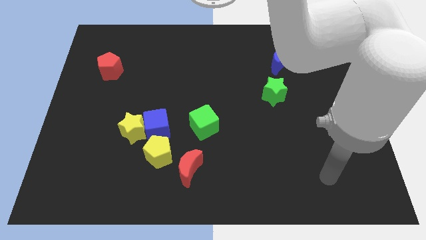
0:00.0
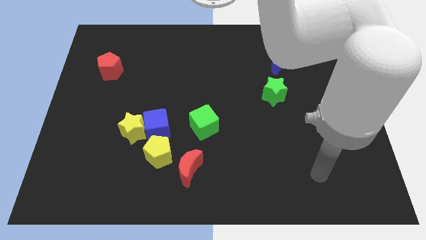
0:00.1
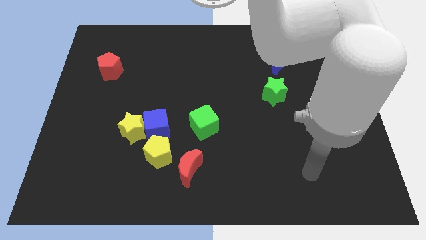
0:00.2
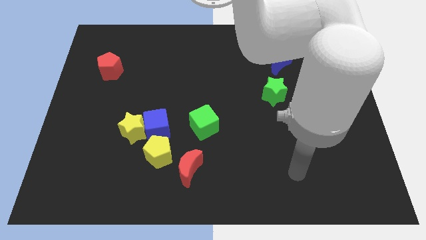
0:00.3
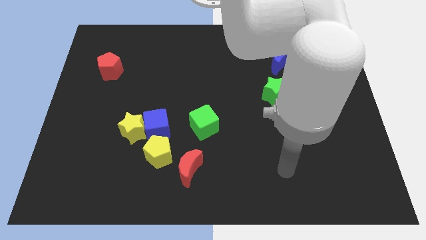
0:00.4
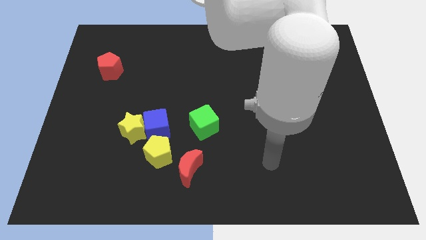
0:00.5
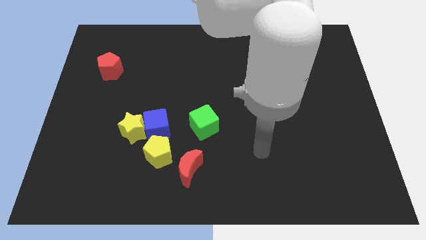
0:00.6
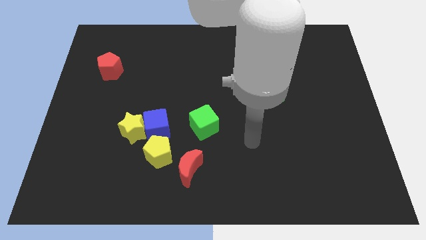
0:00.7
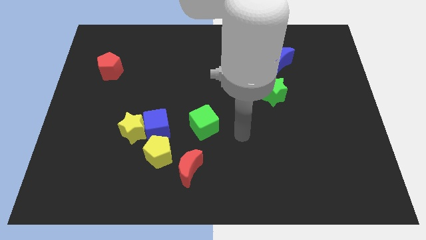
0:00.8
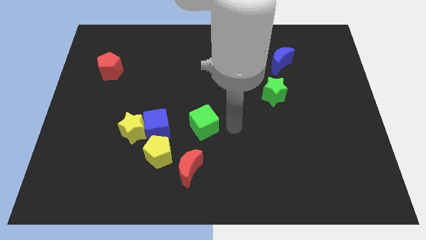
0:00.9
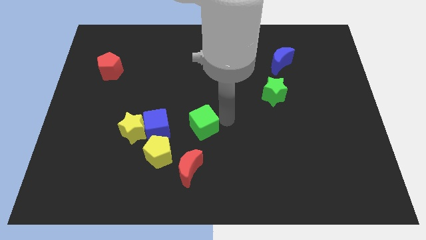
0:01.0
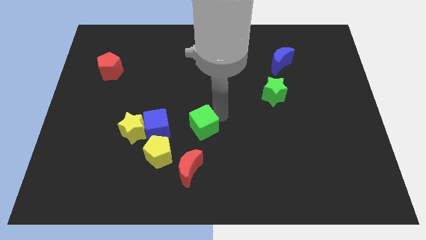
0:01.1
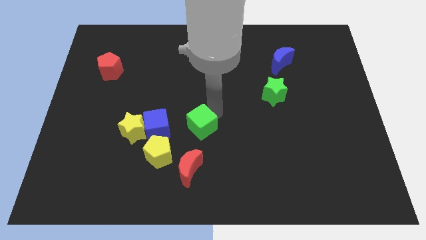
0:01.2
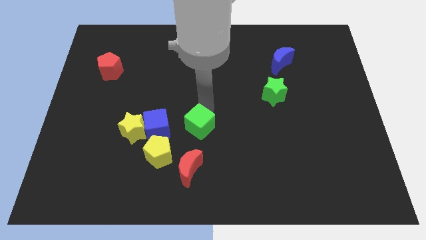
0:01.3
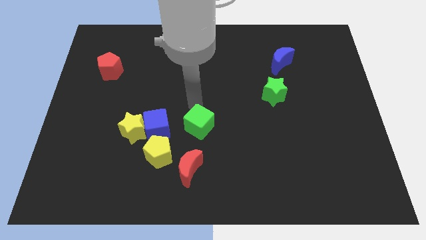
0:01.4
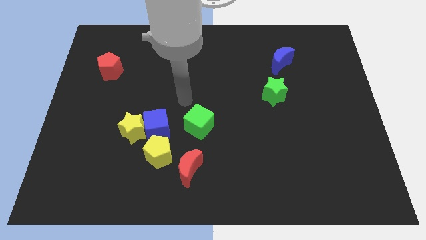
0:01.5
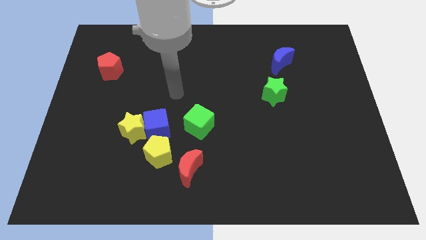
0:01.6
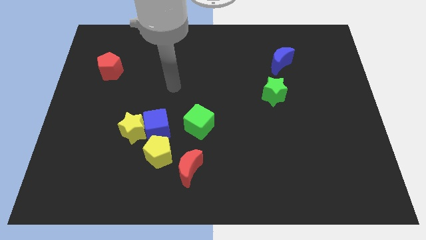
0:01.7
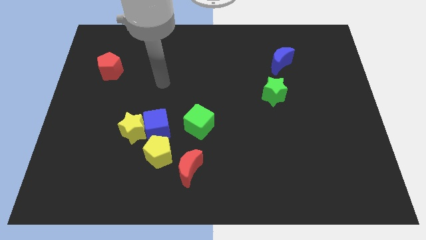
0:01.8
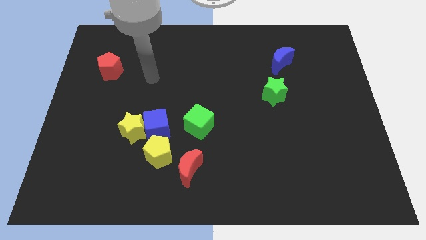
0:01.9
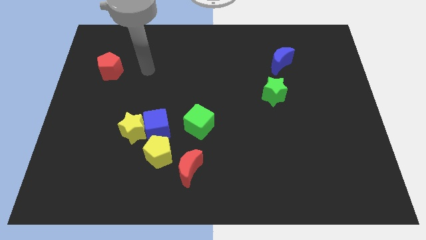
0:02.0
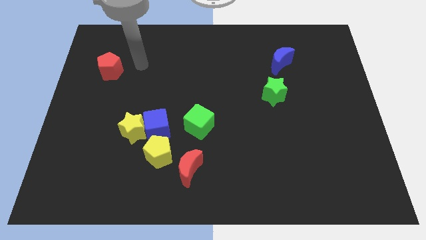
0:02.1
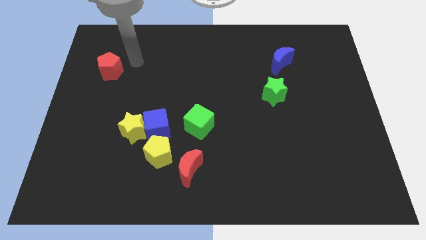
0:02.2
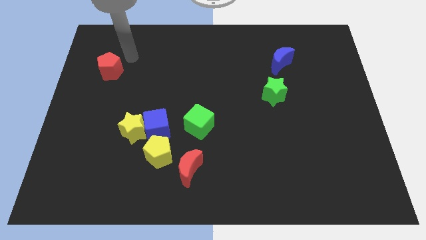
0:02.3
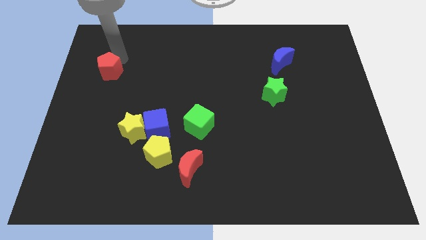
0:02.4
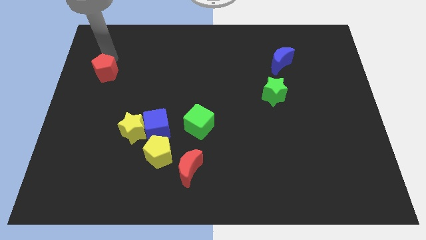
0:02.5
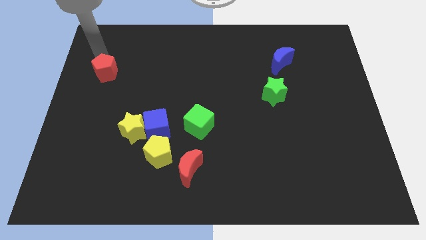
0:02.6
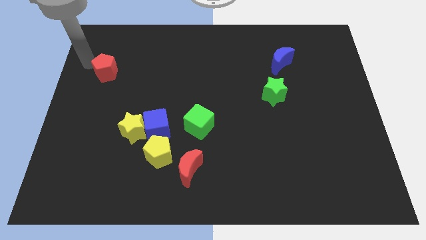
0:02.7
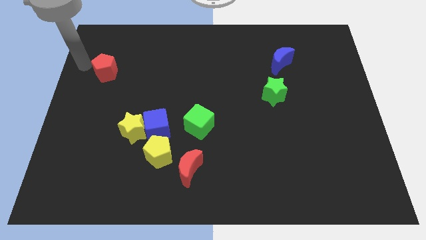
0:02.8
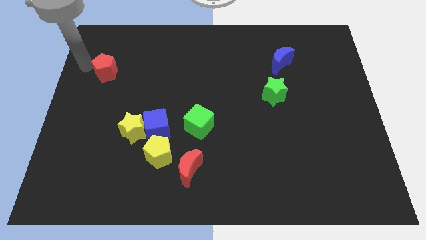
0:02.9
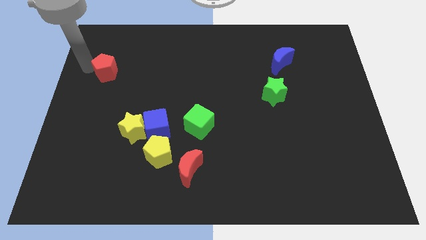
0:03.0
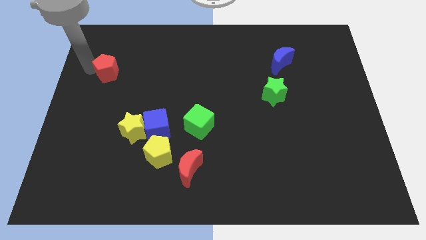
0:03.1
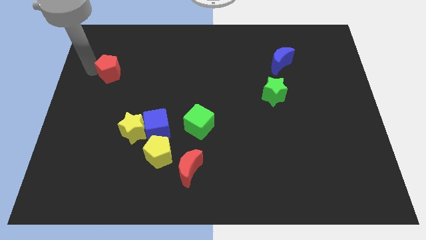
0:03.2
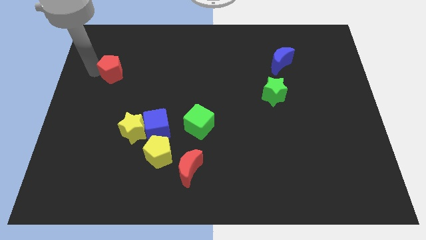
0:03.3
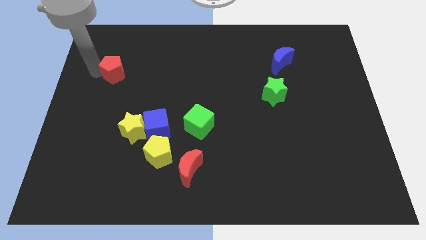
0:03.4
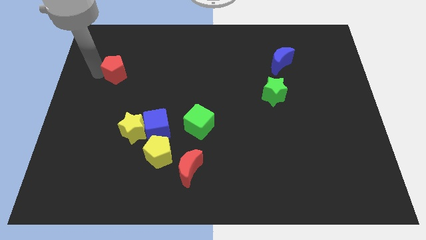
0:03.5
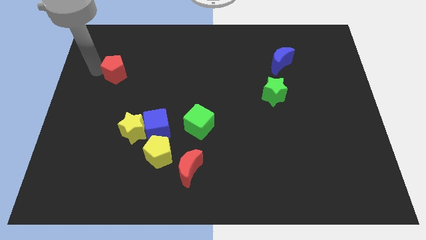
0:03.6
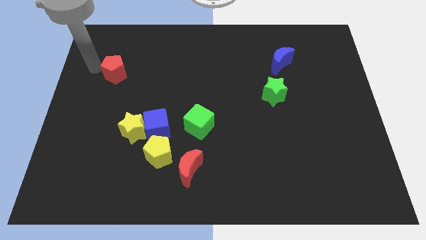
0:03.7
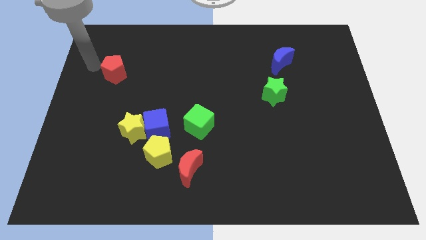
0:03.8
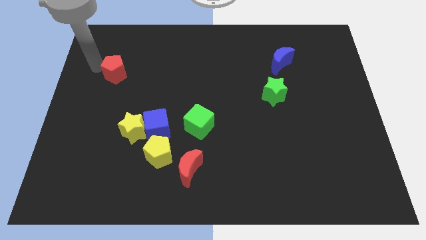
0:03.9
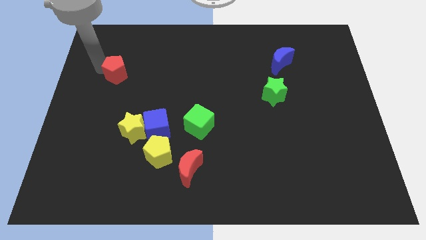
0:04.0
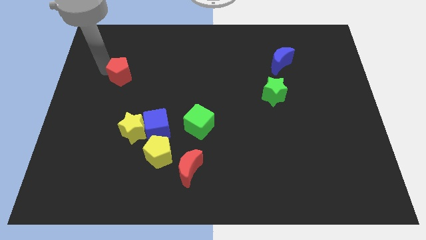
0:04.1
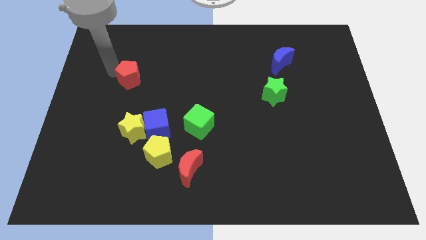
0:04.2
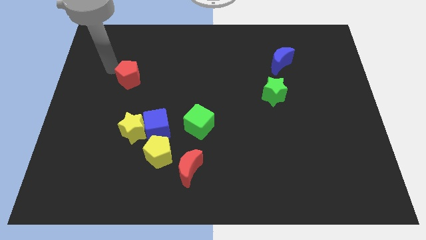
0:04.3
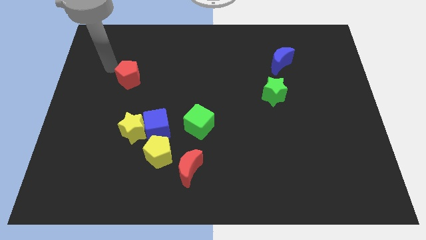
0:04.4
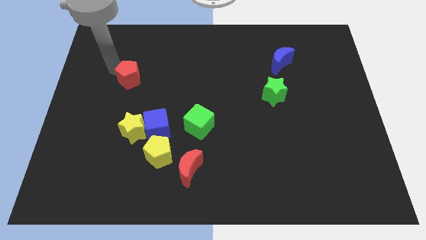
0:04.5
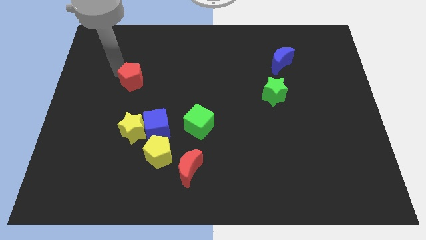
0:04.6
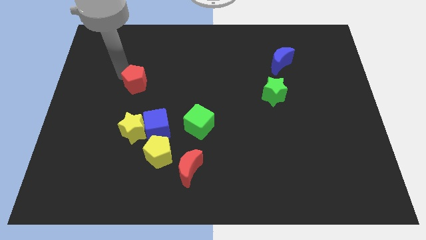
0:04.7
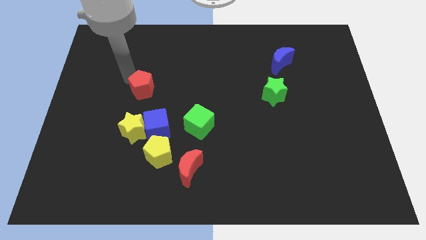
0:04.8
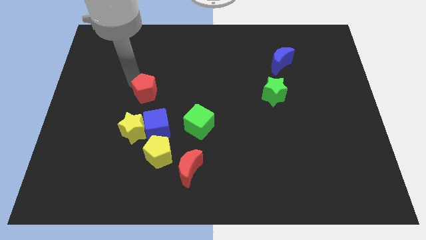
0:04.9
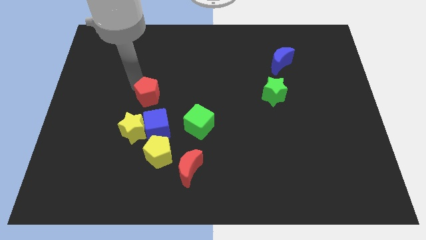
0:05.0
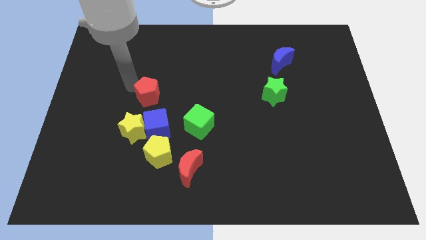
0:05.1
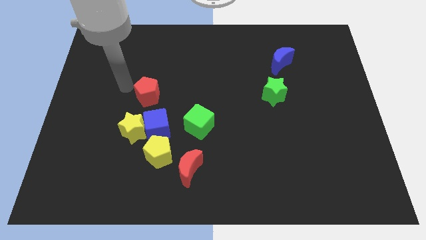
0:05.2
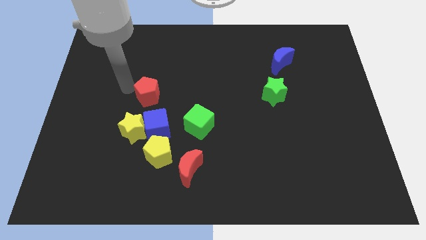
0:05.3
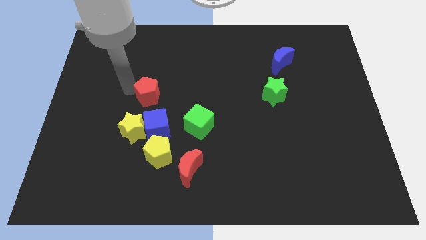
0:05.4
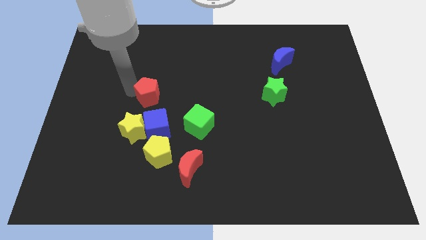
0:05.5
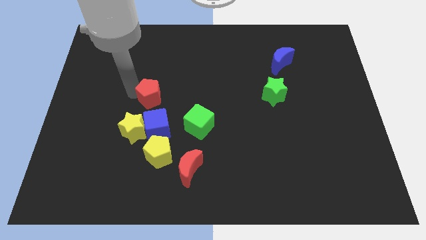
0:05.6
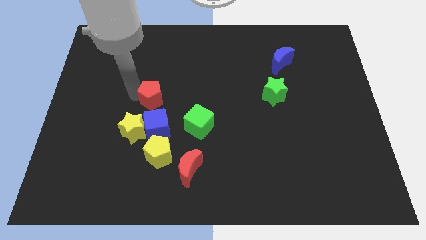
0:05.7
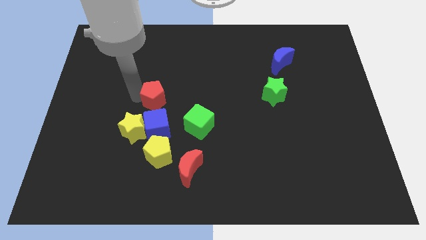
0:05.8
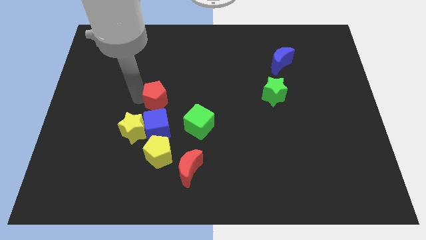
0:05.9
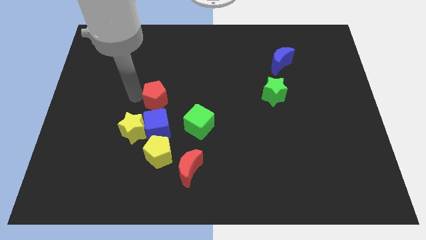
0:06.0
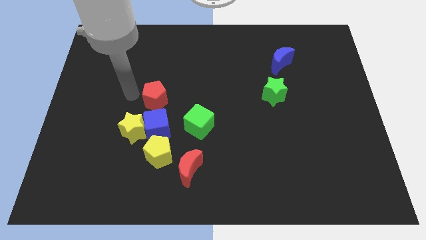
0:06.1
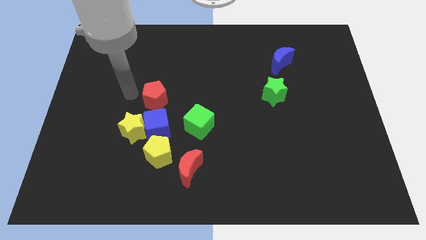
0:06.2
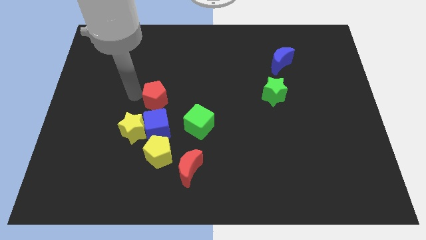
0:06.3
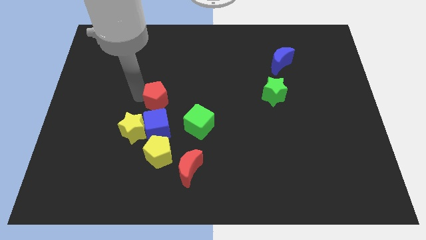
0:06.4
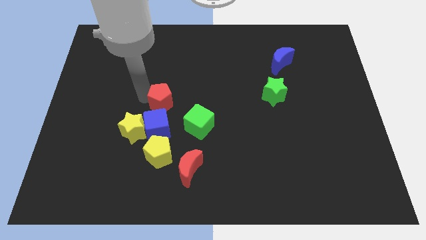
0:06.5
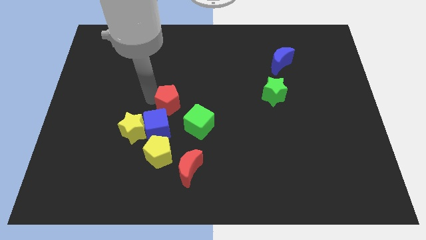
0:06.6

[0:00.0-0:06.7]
push the red pentagon to the top right side of the blue cube

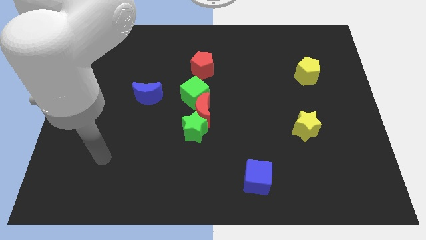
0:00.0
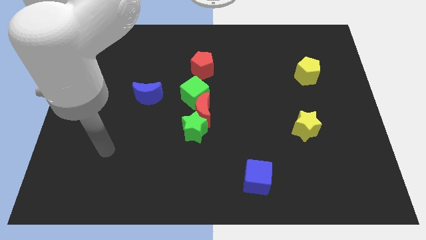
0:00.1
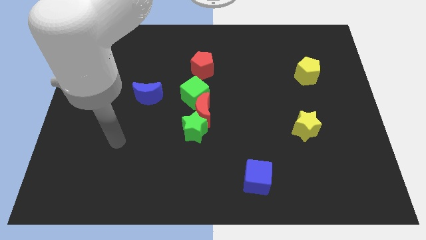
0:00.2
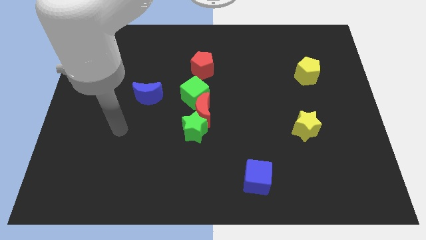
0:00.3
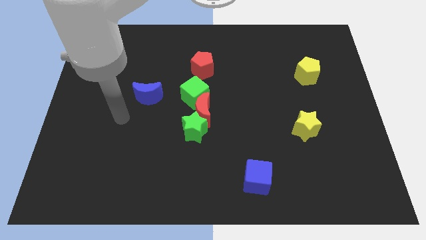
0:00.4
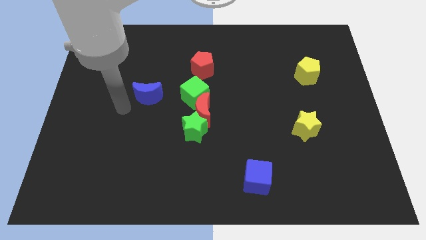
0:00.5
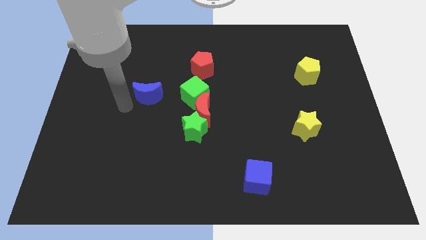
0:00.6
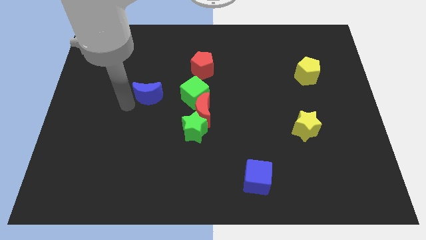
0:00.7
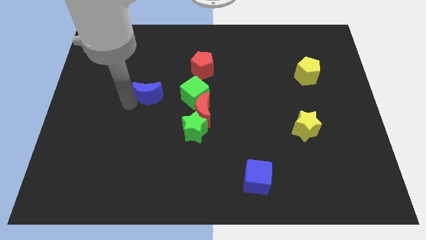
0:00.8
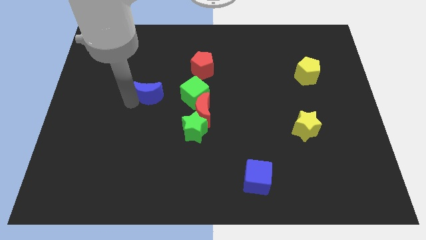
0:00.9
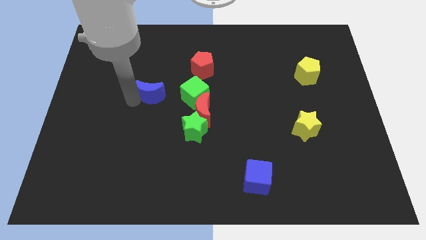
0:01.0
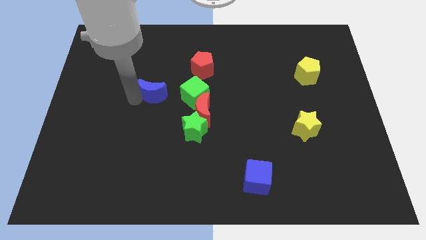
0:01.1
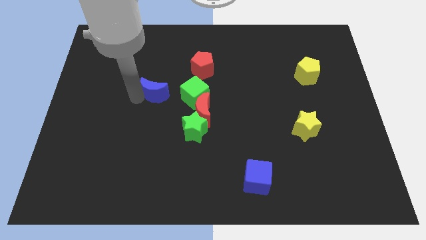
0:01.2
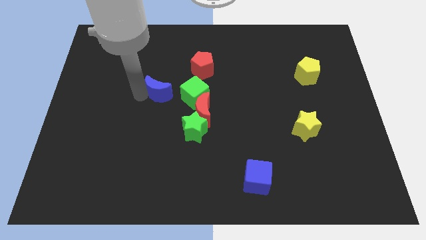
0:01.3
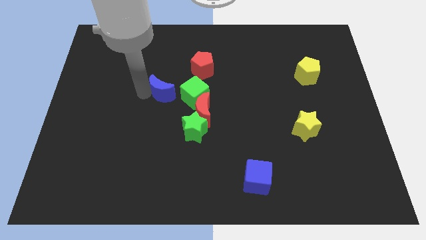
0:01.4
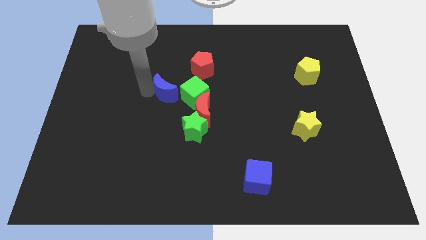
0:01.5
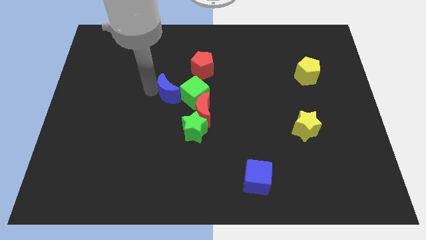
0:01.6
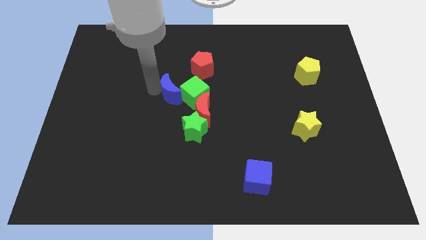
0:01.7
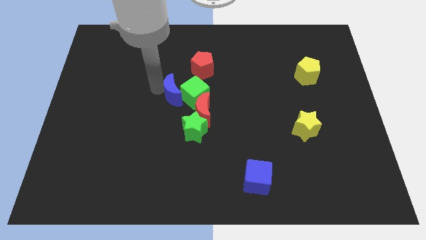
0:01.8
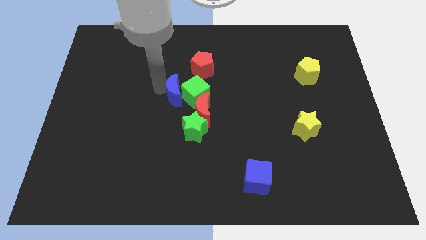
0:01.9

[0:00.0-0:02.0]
push the blue moon to the top of the green star
